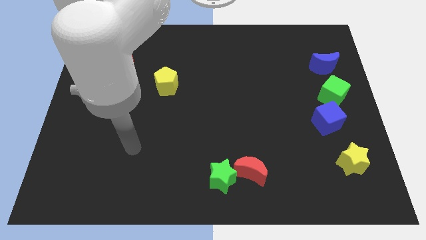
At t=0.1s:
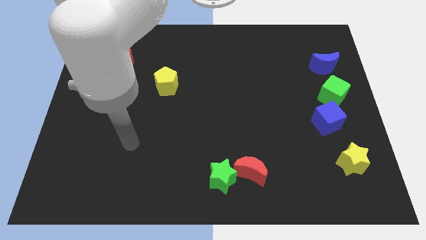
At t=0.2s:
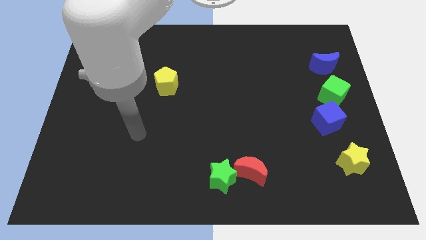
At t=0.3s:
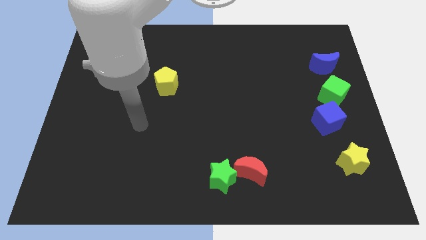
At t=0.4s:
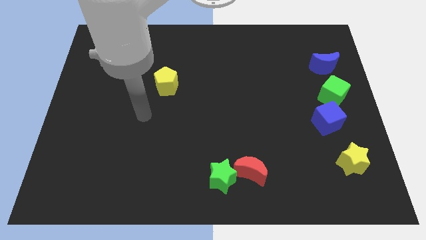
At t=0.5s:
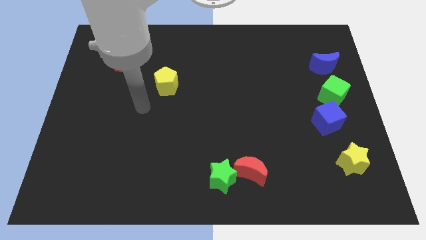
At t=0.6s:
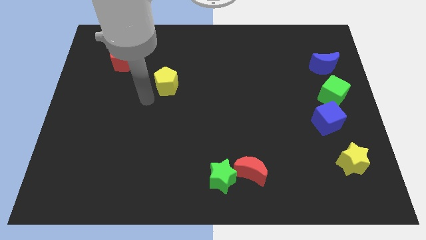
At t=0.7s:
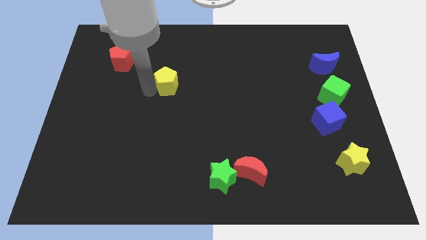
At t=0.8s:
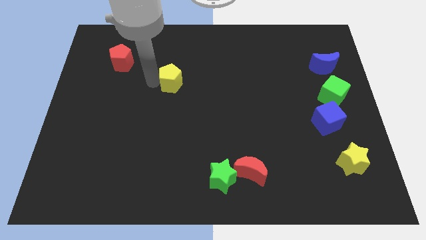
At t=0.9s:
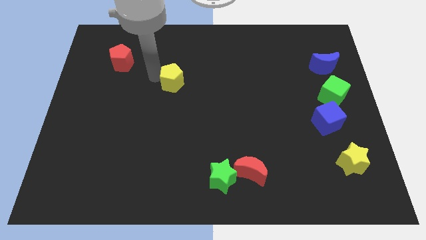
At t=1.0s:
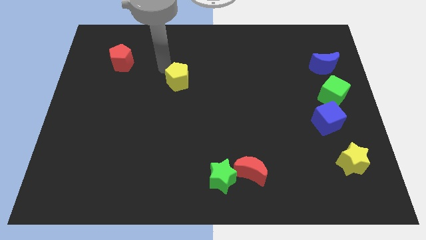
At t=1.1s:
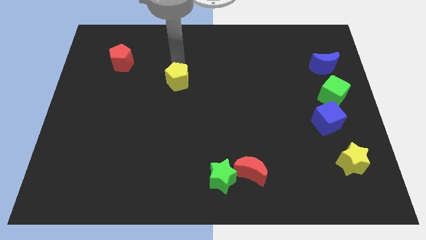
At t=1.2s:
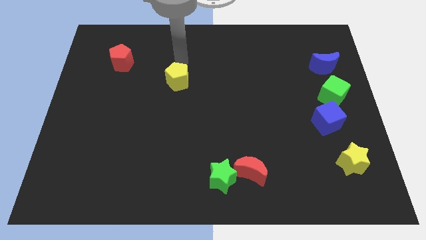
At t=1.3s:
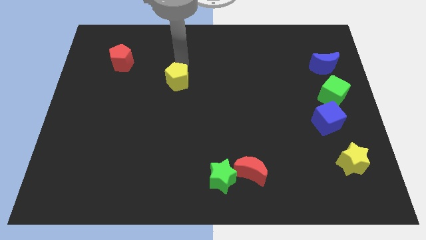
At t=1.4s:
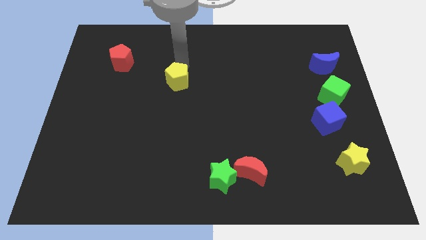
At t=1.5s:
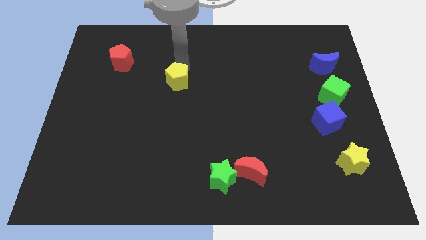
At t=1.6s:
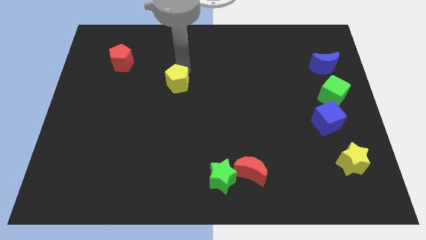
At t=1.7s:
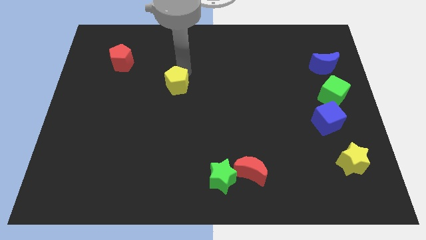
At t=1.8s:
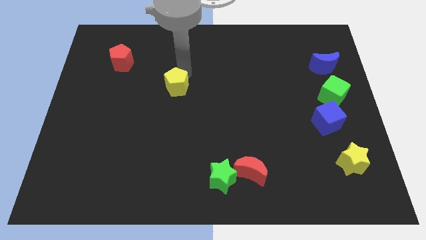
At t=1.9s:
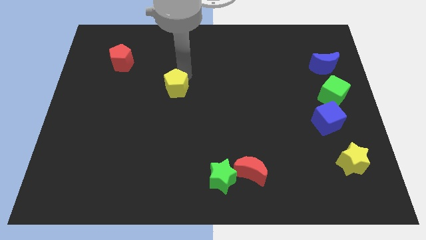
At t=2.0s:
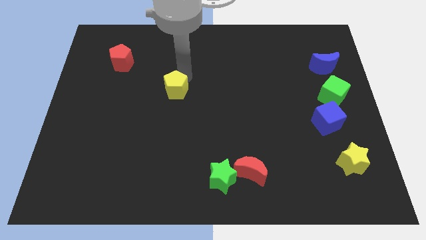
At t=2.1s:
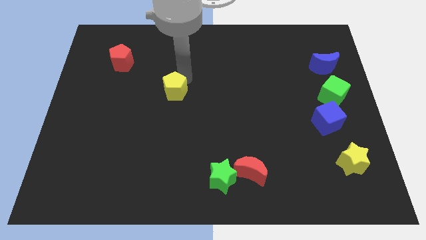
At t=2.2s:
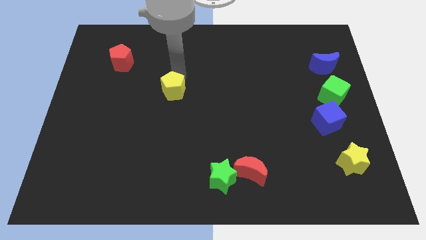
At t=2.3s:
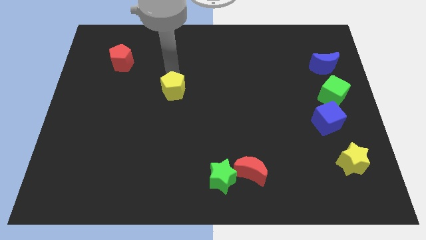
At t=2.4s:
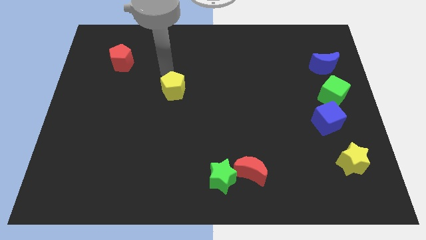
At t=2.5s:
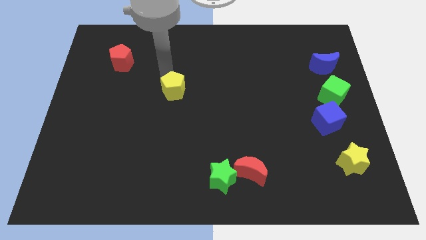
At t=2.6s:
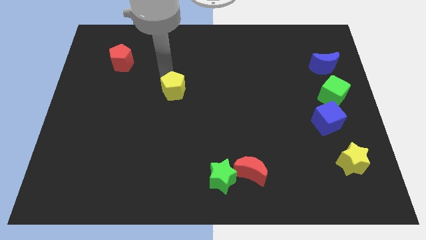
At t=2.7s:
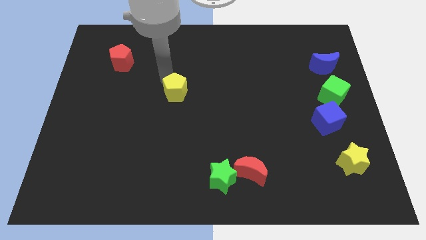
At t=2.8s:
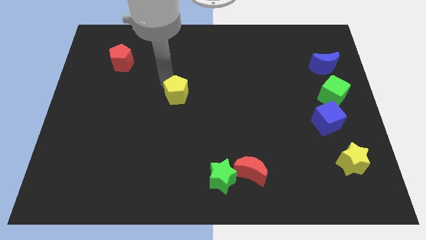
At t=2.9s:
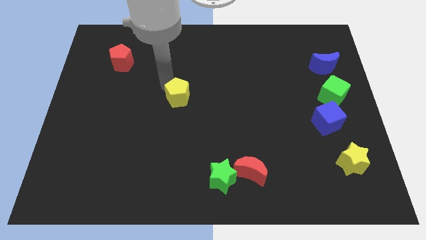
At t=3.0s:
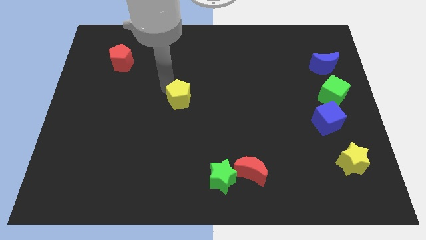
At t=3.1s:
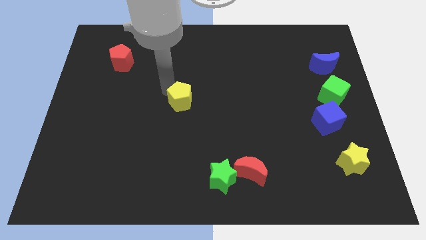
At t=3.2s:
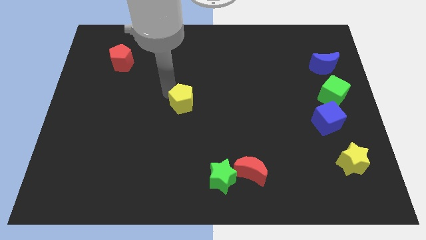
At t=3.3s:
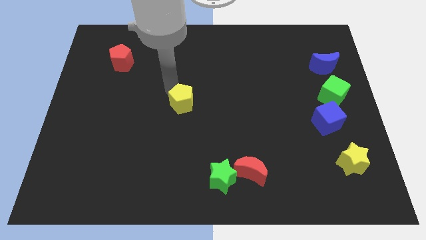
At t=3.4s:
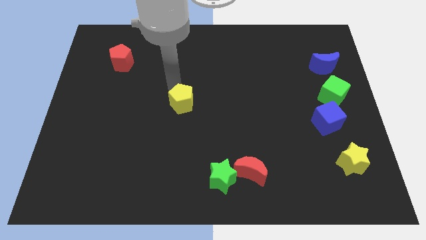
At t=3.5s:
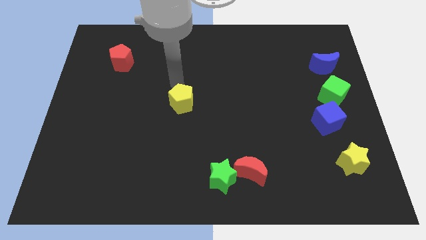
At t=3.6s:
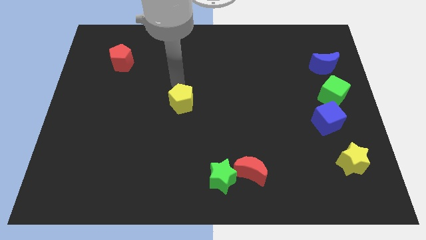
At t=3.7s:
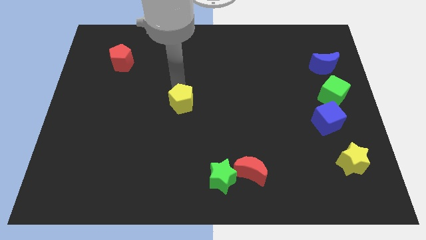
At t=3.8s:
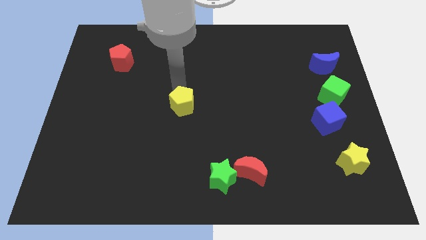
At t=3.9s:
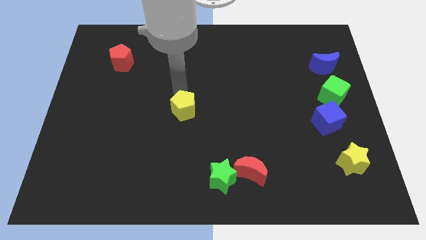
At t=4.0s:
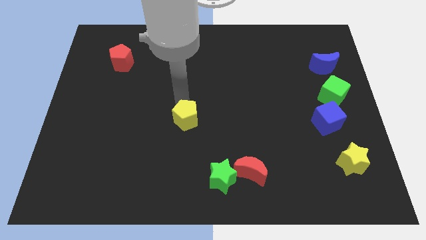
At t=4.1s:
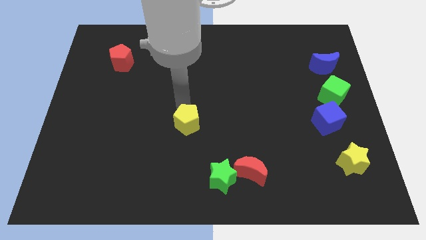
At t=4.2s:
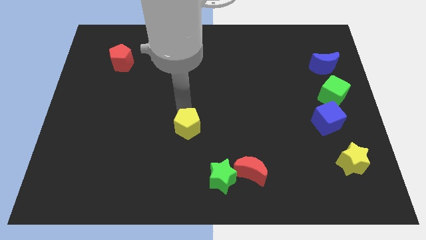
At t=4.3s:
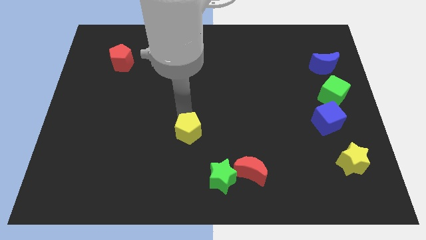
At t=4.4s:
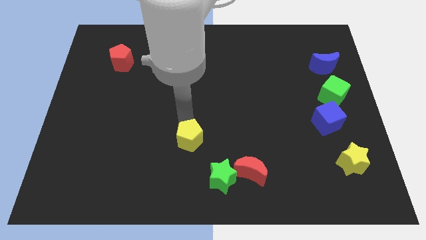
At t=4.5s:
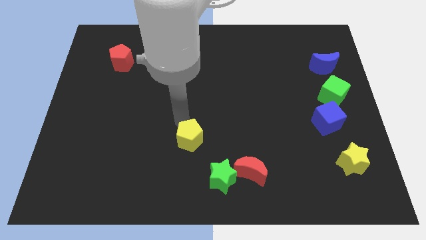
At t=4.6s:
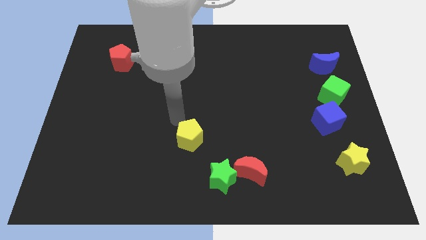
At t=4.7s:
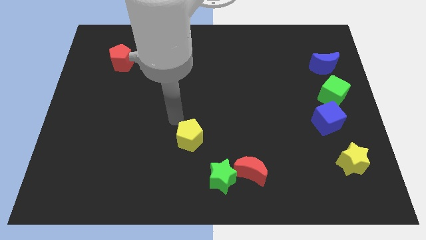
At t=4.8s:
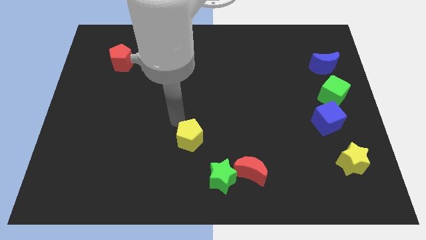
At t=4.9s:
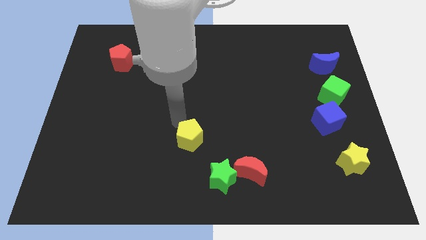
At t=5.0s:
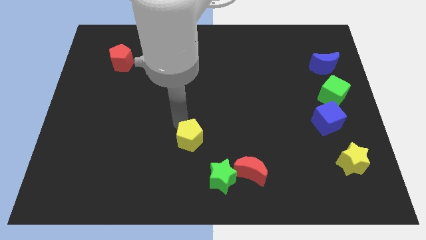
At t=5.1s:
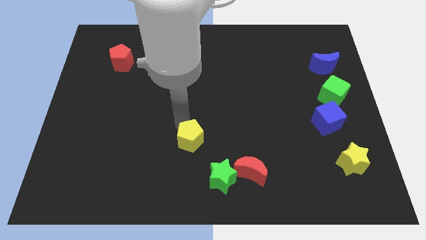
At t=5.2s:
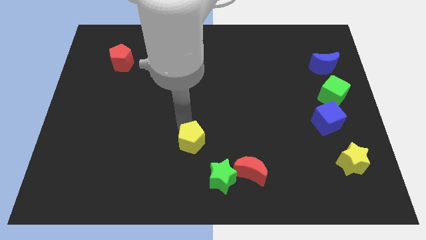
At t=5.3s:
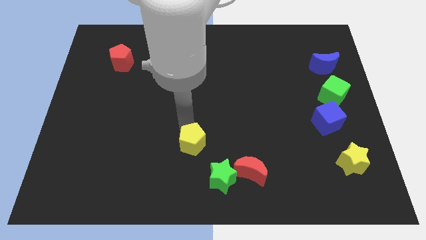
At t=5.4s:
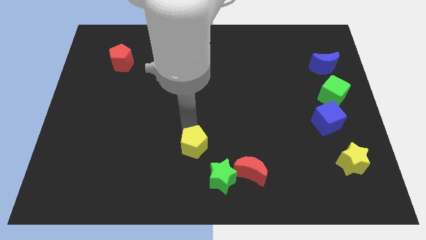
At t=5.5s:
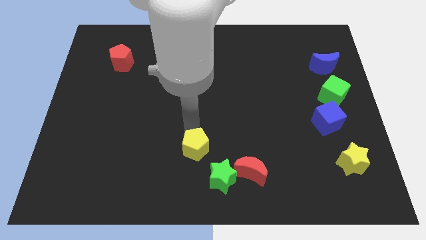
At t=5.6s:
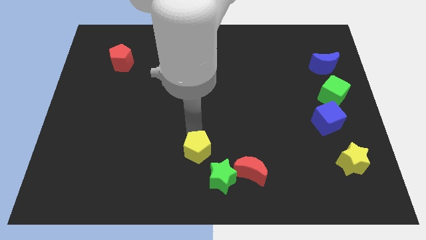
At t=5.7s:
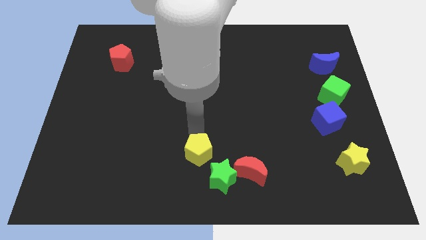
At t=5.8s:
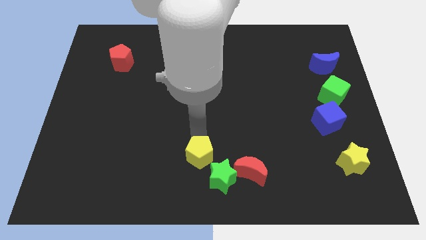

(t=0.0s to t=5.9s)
put the yellow pentagon to the bottom

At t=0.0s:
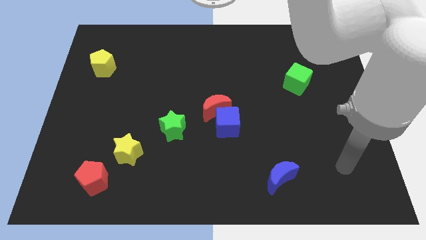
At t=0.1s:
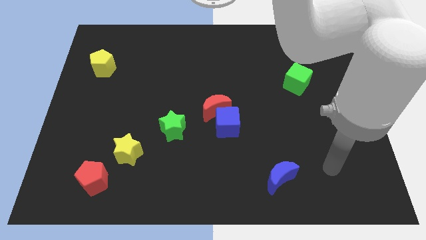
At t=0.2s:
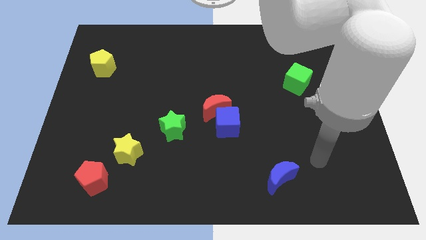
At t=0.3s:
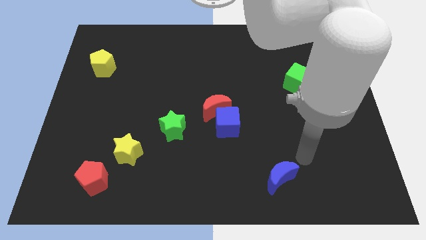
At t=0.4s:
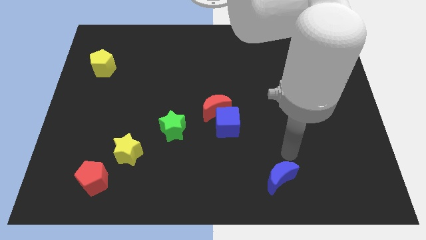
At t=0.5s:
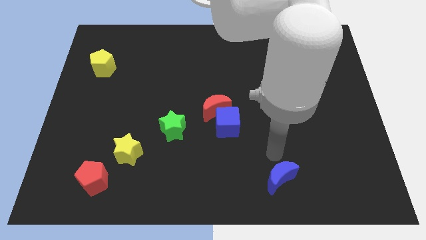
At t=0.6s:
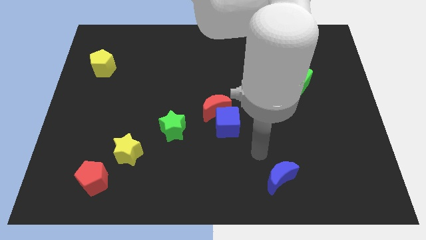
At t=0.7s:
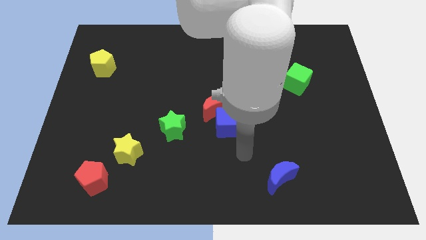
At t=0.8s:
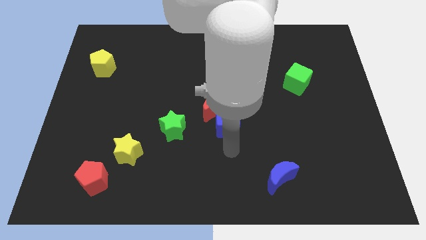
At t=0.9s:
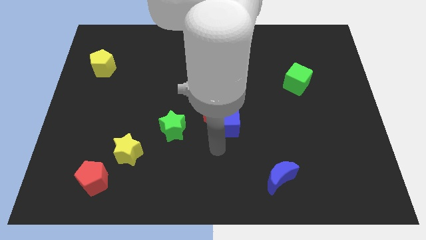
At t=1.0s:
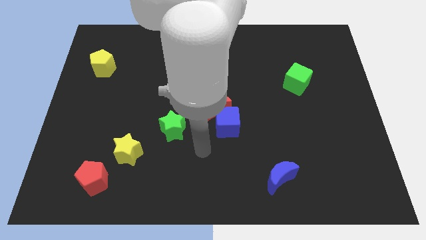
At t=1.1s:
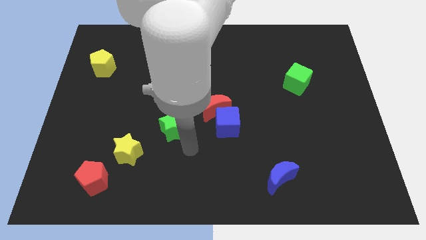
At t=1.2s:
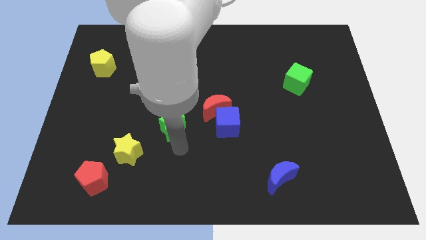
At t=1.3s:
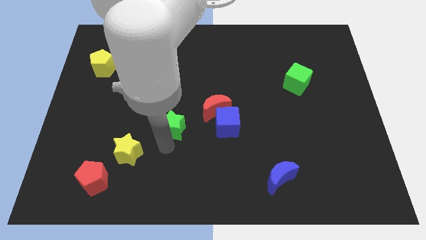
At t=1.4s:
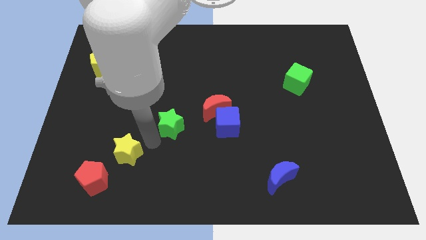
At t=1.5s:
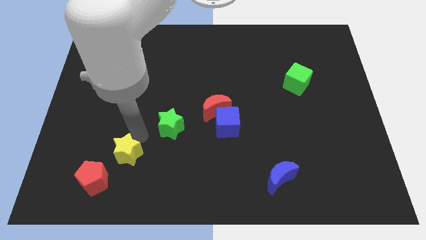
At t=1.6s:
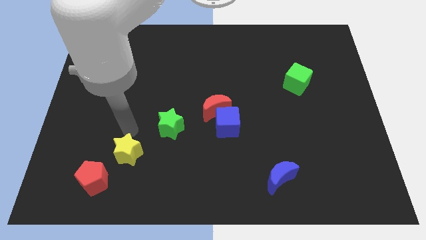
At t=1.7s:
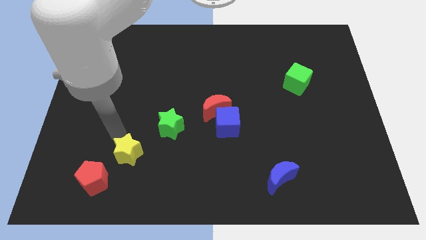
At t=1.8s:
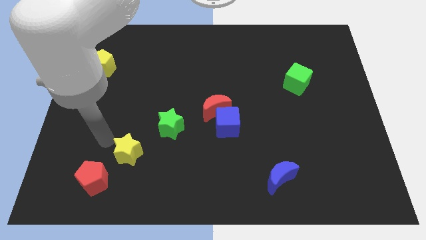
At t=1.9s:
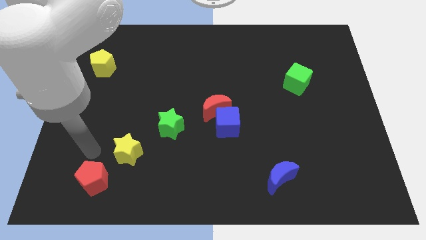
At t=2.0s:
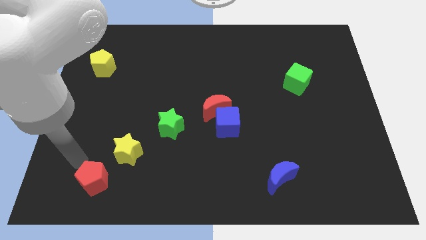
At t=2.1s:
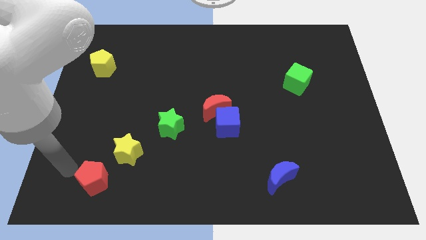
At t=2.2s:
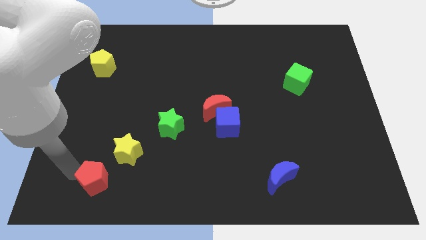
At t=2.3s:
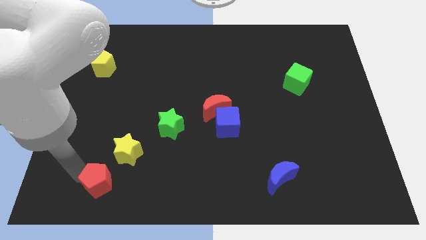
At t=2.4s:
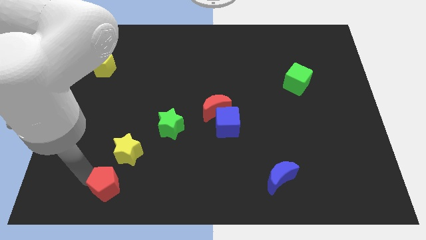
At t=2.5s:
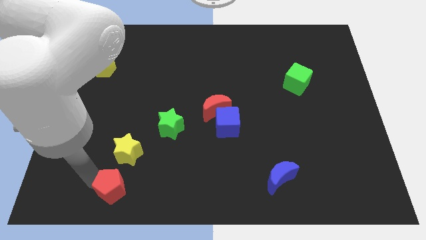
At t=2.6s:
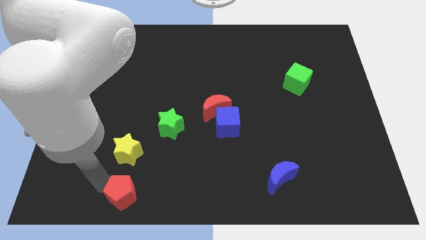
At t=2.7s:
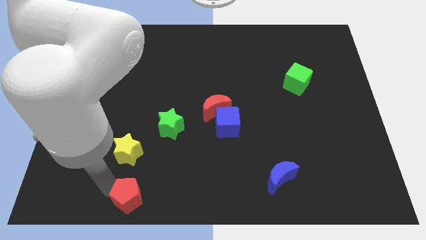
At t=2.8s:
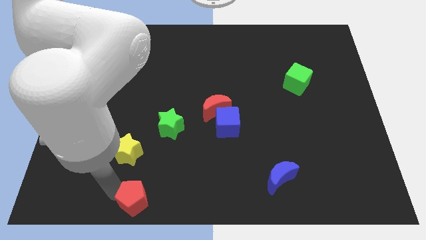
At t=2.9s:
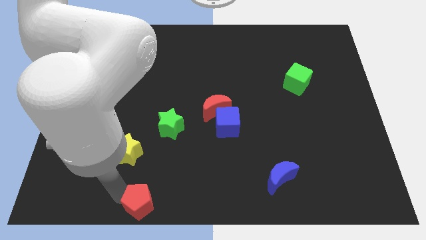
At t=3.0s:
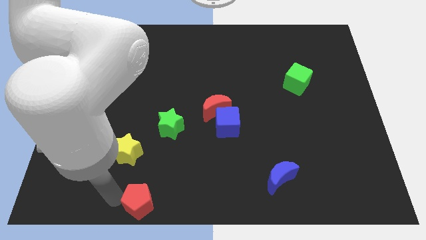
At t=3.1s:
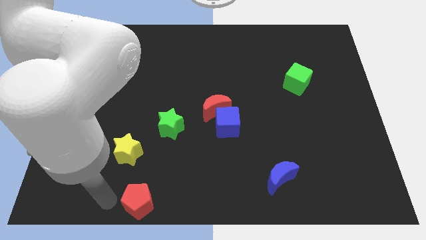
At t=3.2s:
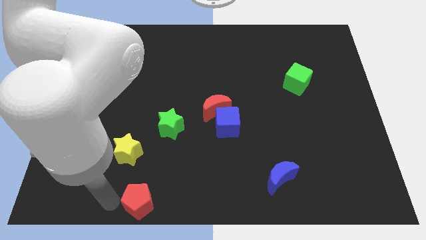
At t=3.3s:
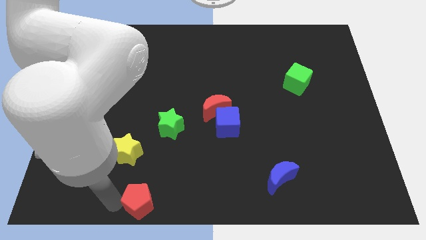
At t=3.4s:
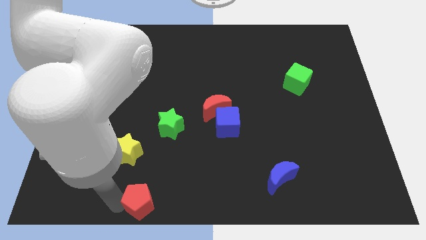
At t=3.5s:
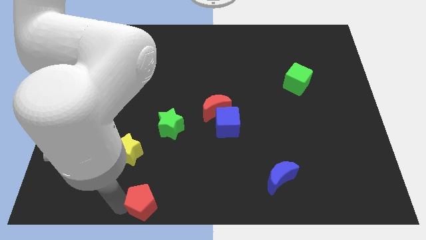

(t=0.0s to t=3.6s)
slide the red pentagon to the bottom
